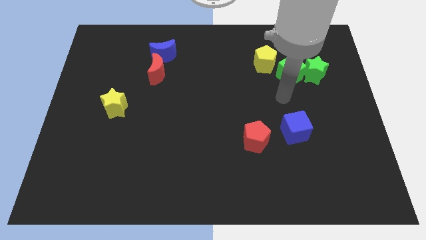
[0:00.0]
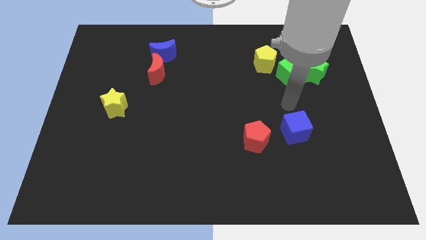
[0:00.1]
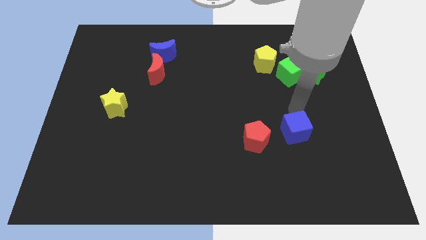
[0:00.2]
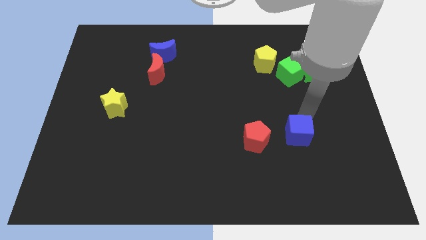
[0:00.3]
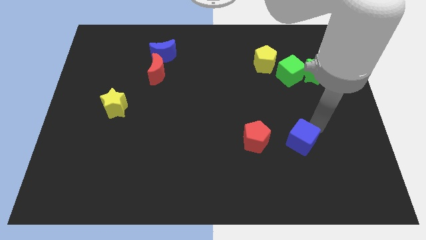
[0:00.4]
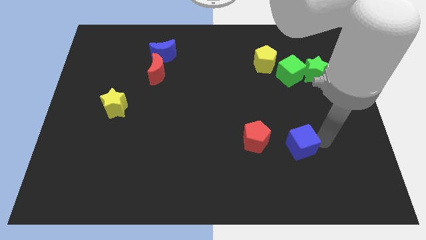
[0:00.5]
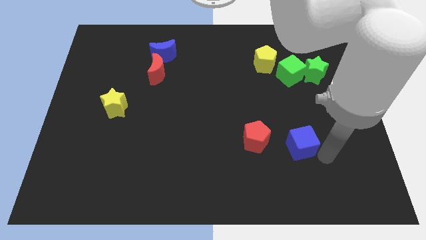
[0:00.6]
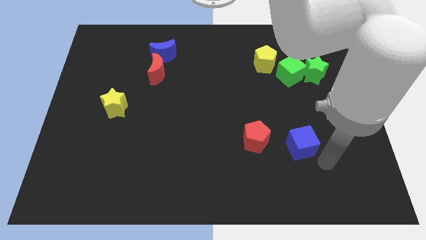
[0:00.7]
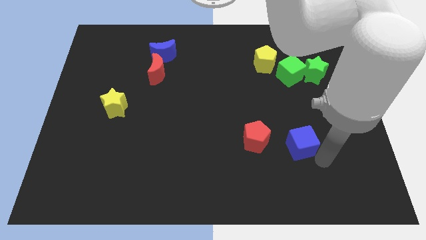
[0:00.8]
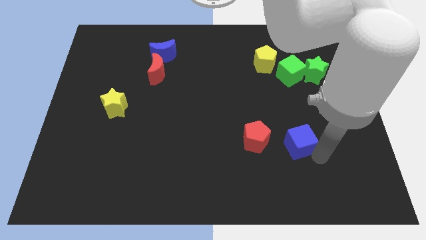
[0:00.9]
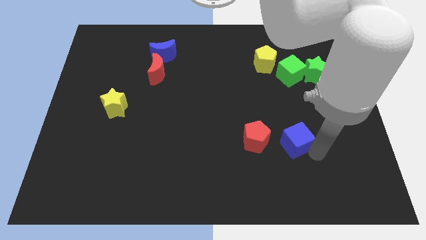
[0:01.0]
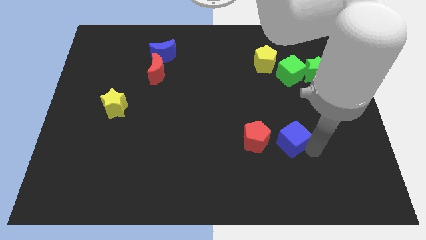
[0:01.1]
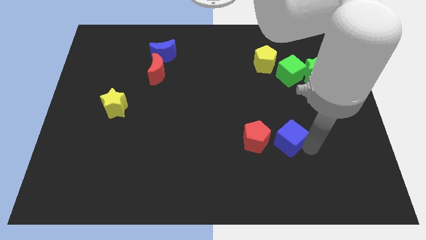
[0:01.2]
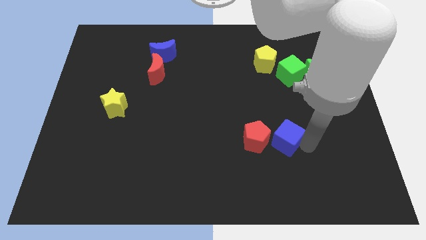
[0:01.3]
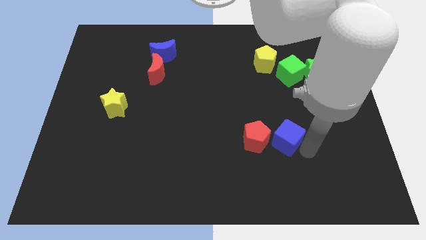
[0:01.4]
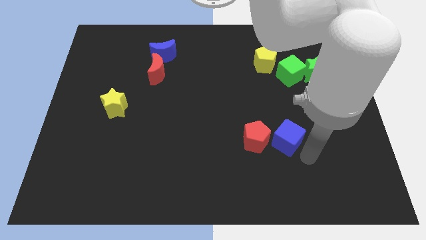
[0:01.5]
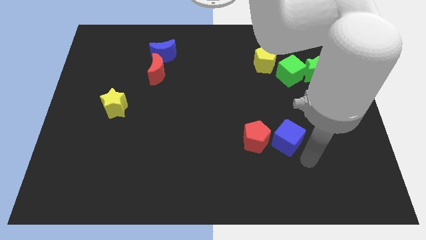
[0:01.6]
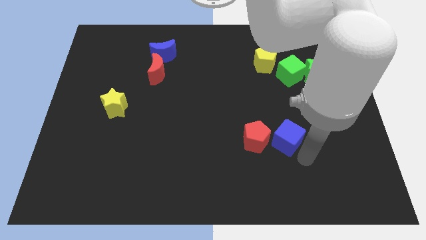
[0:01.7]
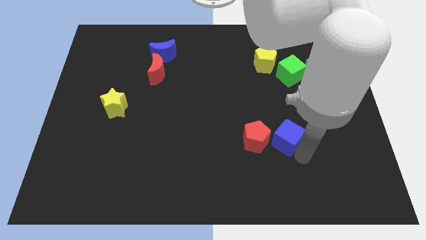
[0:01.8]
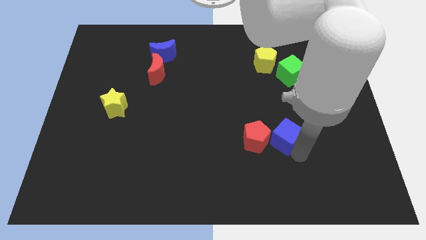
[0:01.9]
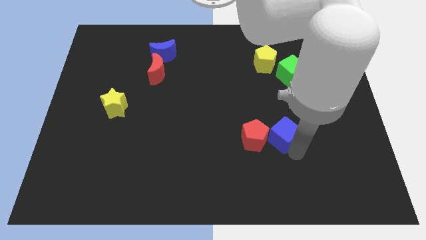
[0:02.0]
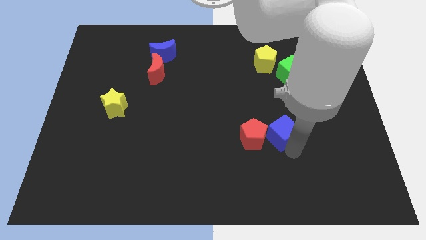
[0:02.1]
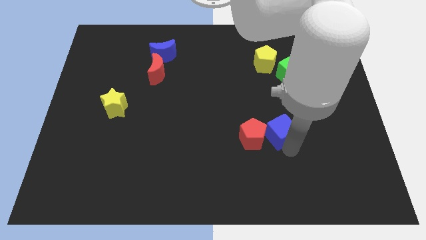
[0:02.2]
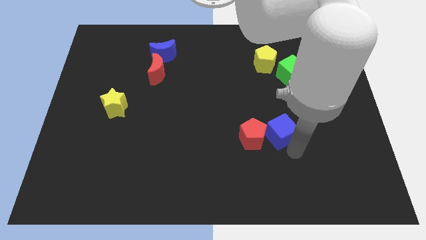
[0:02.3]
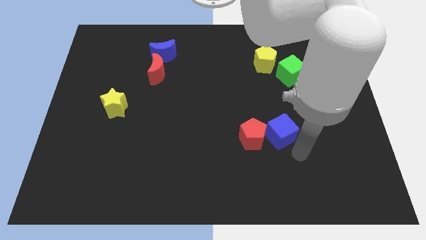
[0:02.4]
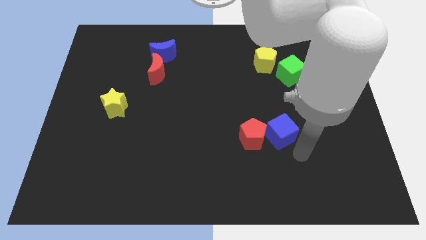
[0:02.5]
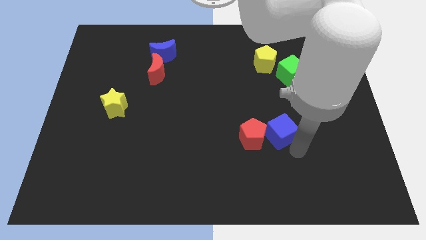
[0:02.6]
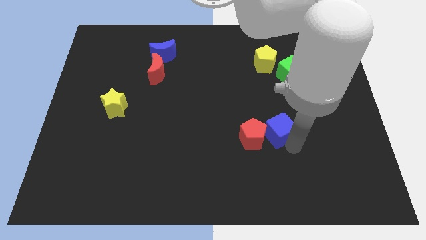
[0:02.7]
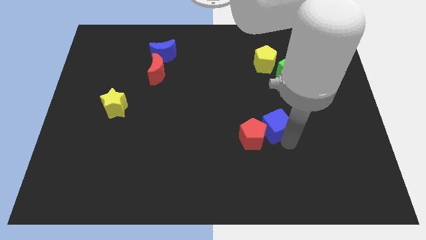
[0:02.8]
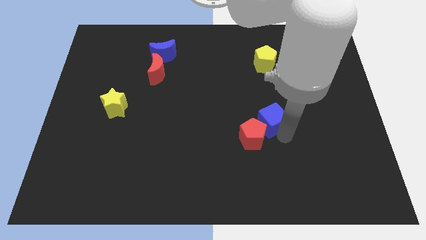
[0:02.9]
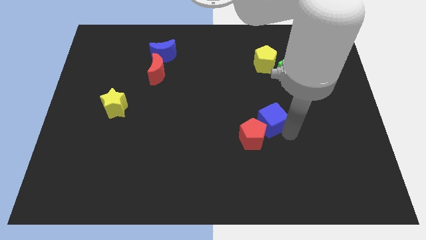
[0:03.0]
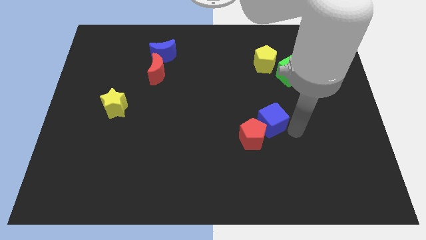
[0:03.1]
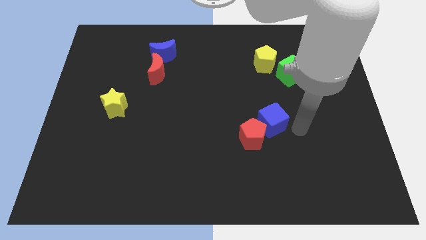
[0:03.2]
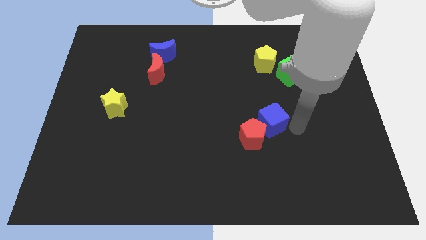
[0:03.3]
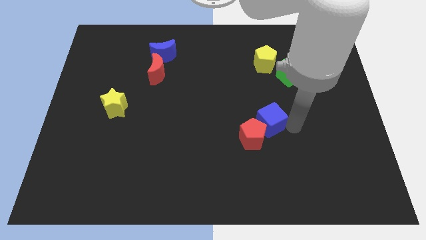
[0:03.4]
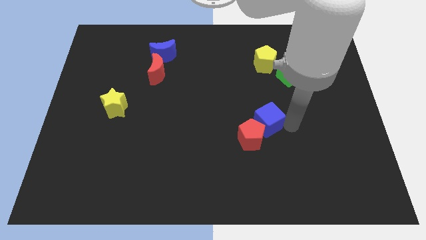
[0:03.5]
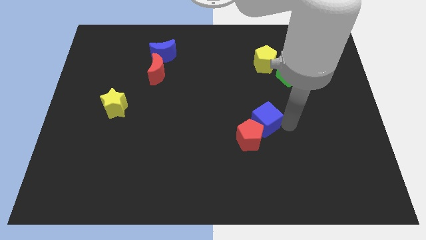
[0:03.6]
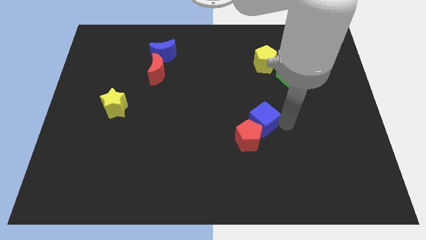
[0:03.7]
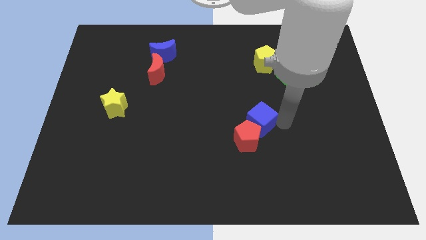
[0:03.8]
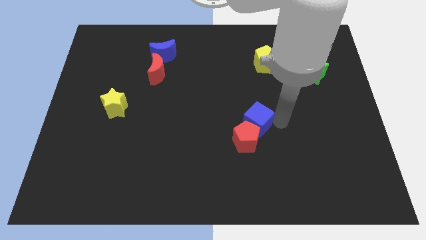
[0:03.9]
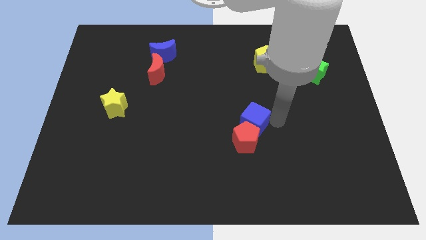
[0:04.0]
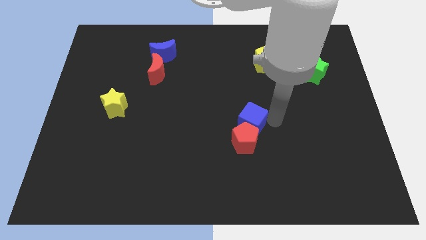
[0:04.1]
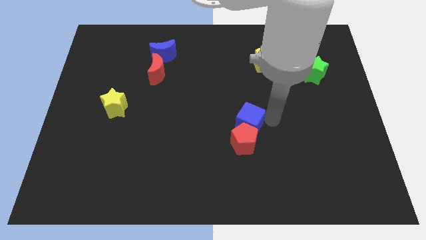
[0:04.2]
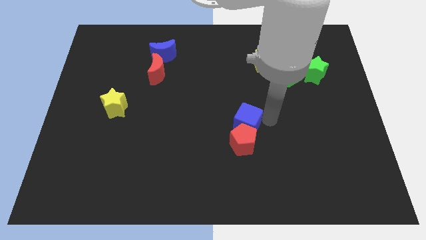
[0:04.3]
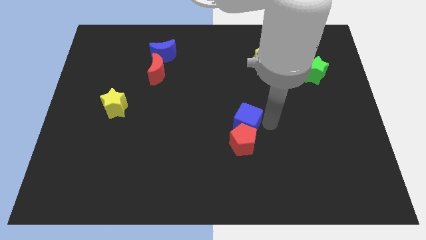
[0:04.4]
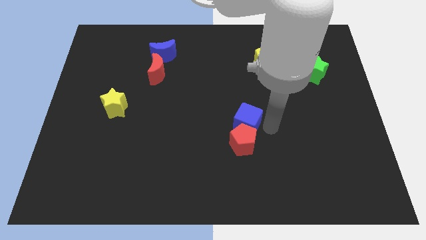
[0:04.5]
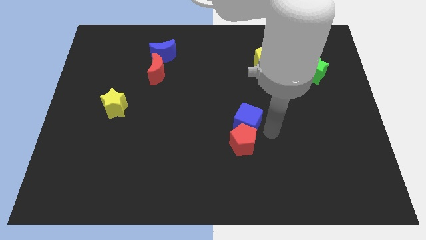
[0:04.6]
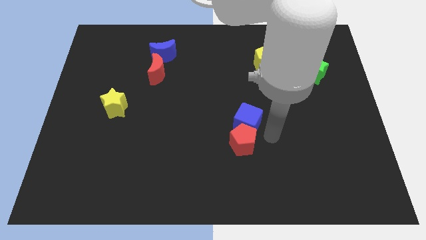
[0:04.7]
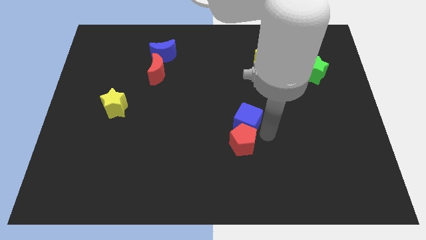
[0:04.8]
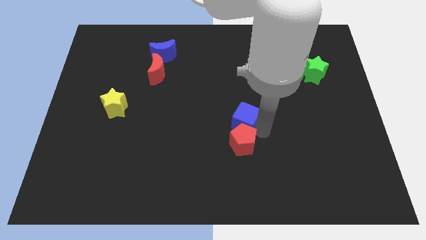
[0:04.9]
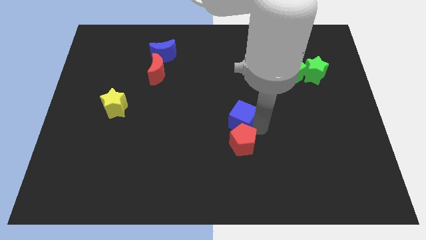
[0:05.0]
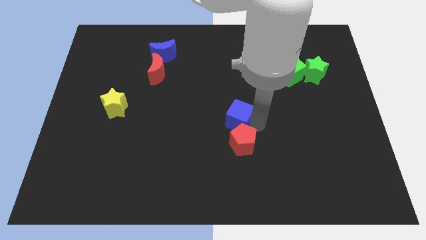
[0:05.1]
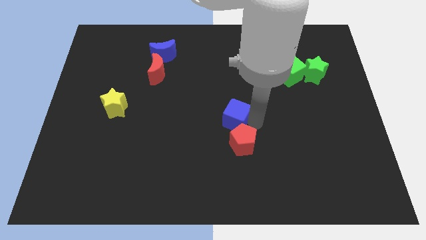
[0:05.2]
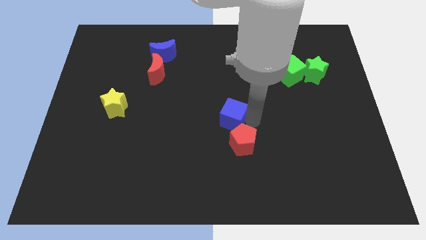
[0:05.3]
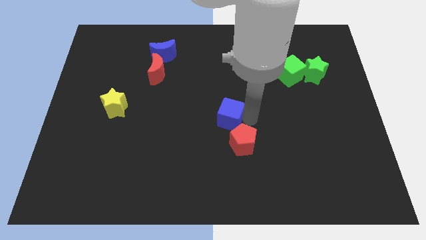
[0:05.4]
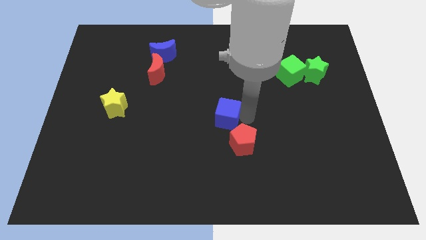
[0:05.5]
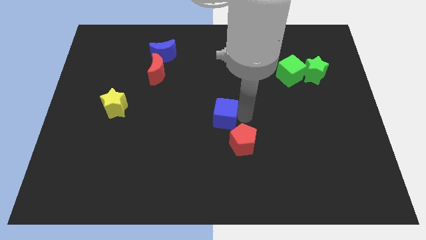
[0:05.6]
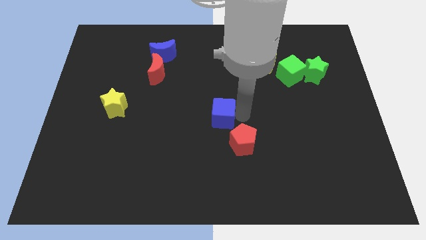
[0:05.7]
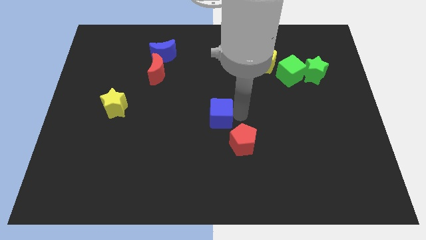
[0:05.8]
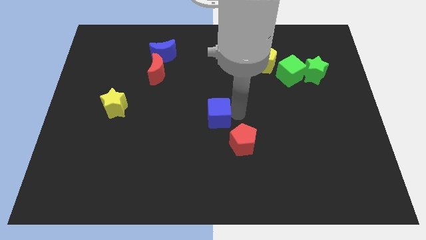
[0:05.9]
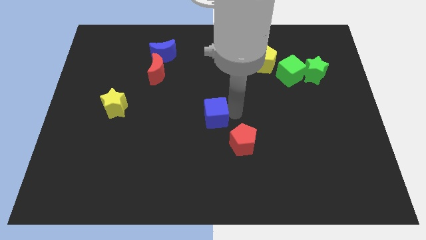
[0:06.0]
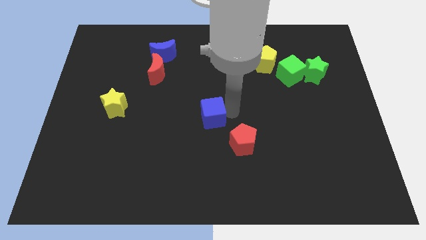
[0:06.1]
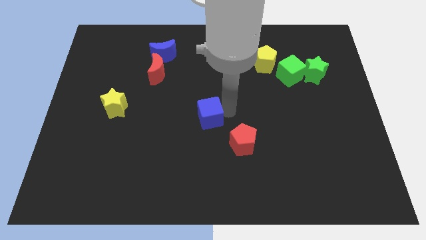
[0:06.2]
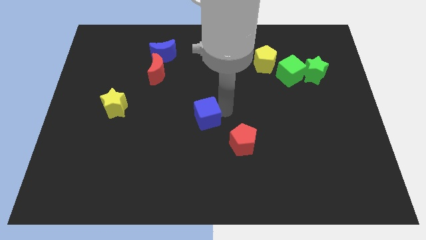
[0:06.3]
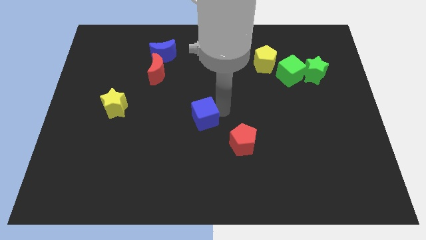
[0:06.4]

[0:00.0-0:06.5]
push the blue cube to the left

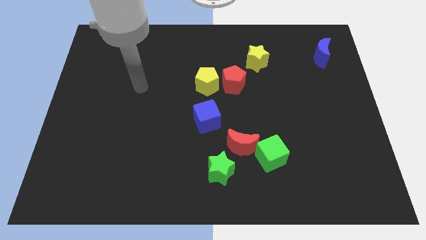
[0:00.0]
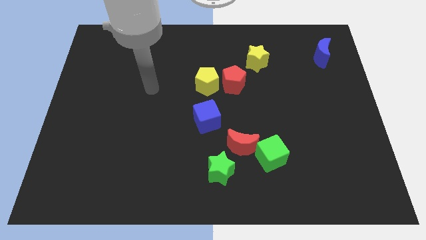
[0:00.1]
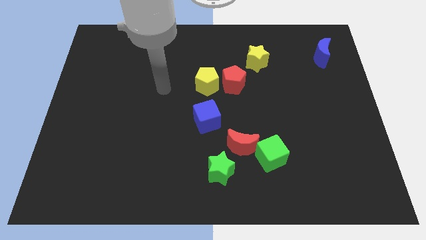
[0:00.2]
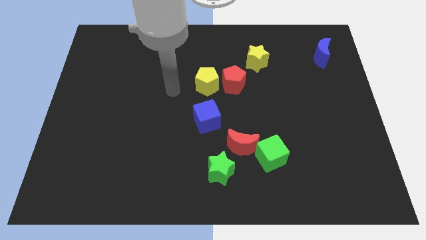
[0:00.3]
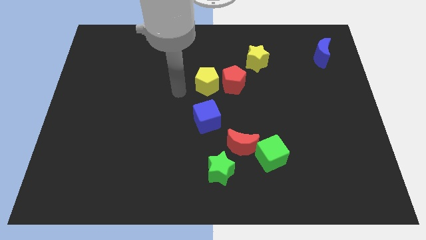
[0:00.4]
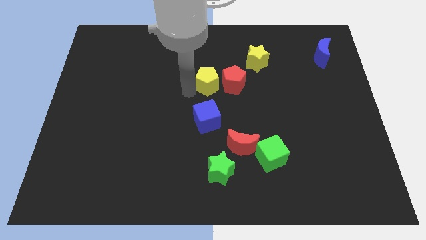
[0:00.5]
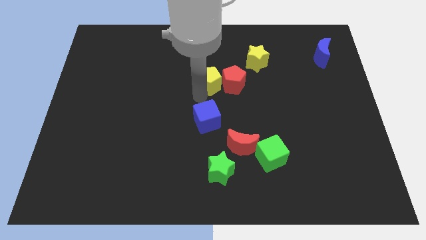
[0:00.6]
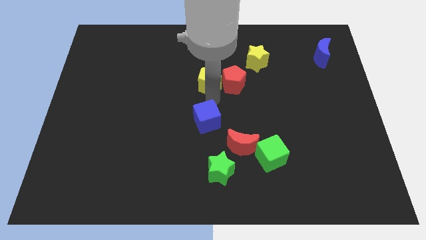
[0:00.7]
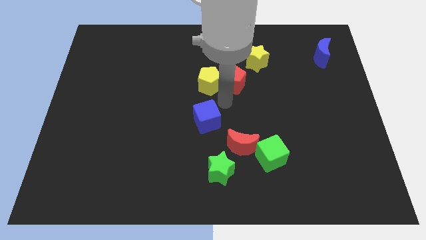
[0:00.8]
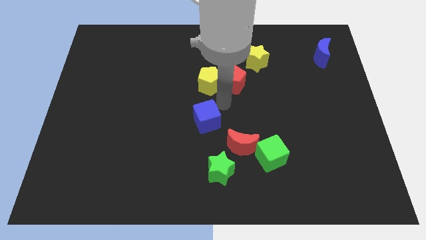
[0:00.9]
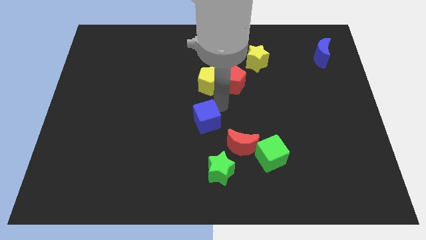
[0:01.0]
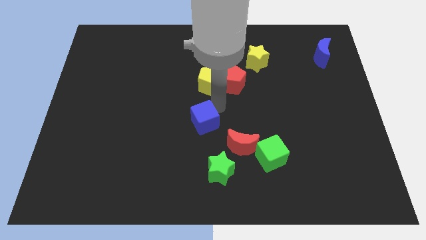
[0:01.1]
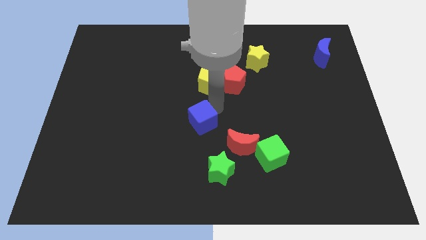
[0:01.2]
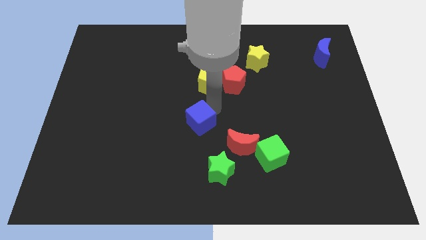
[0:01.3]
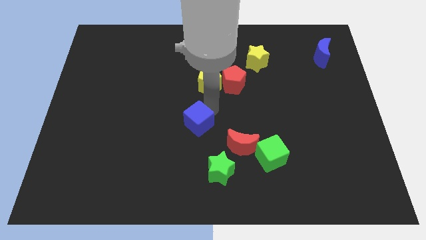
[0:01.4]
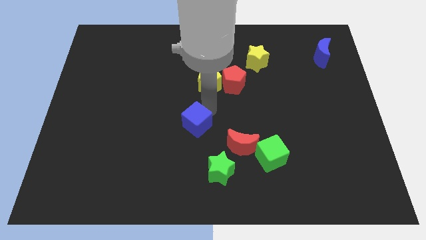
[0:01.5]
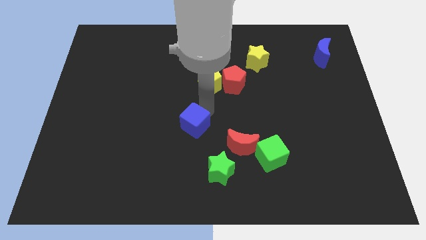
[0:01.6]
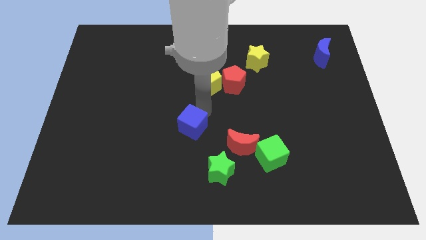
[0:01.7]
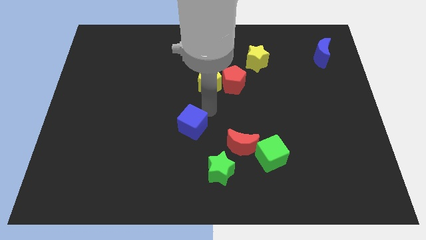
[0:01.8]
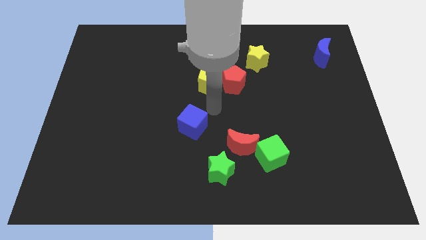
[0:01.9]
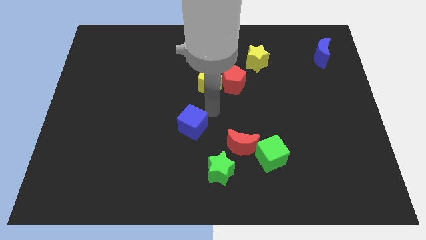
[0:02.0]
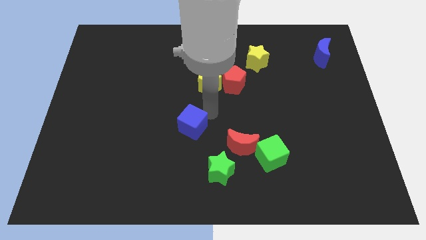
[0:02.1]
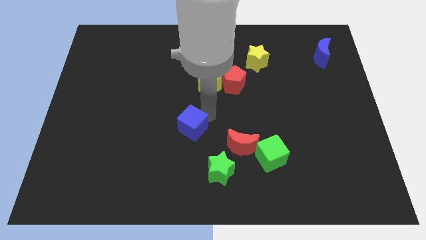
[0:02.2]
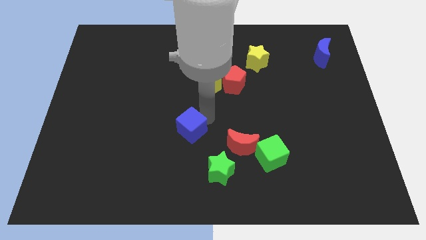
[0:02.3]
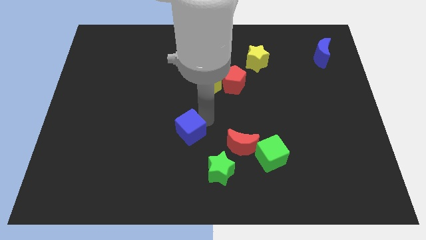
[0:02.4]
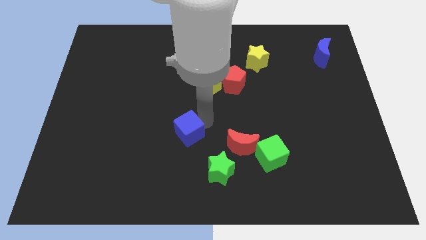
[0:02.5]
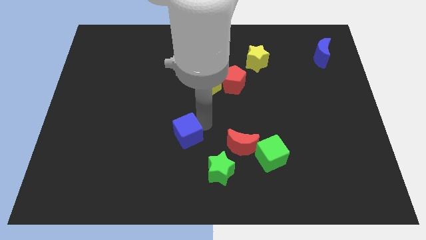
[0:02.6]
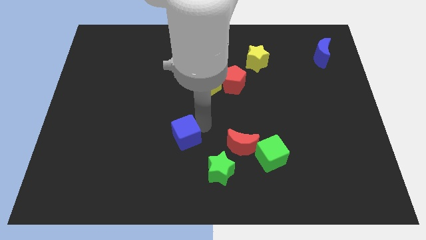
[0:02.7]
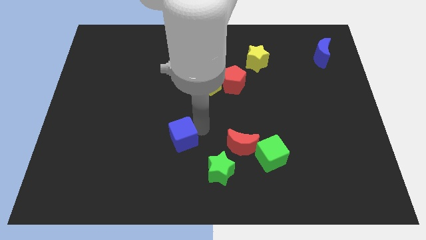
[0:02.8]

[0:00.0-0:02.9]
slightly slide the blue cube down and left
